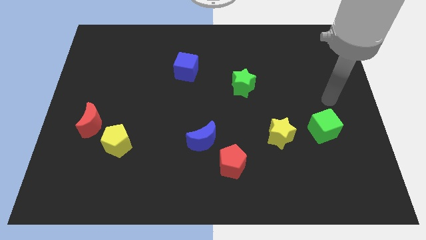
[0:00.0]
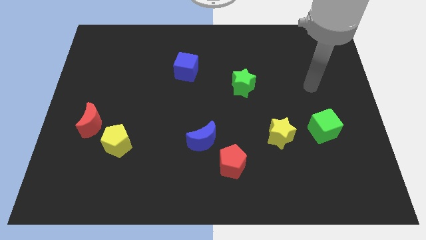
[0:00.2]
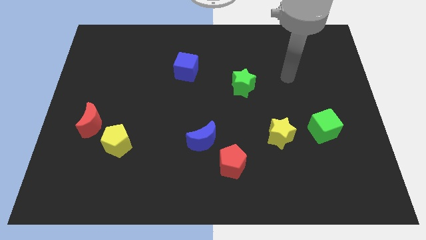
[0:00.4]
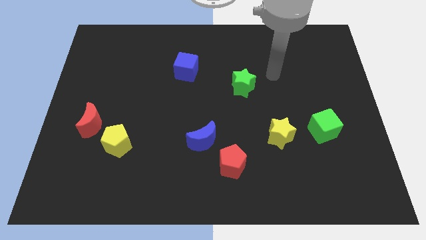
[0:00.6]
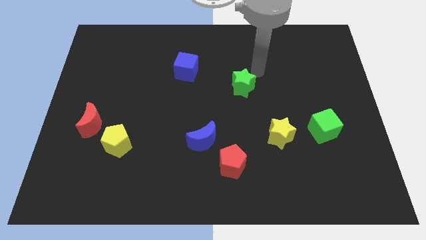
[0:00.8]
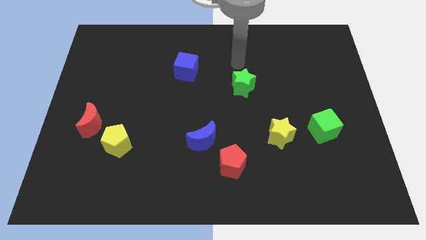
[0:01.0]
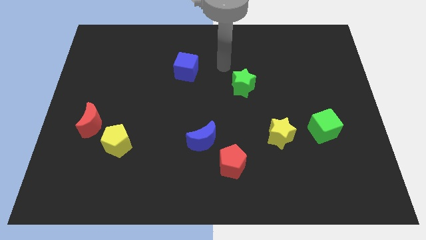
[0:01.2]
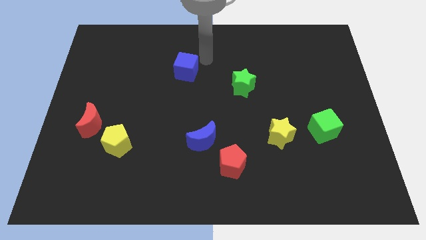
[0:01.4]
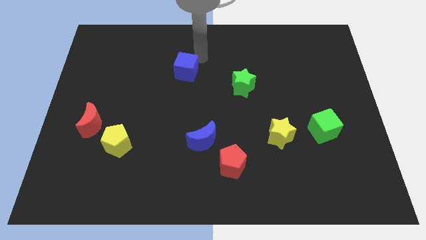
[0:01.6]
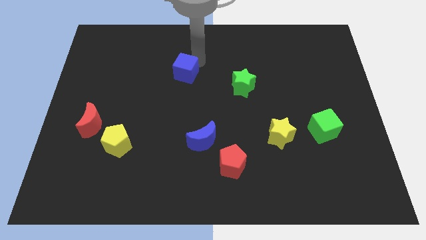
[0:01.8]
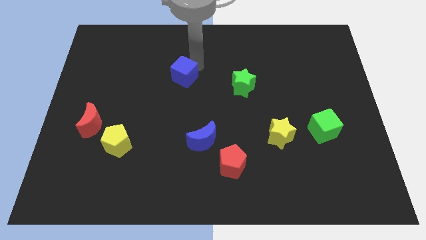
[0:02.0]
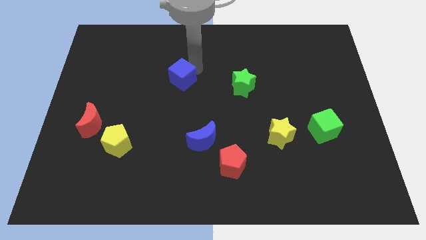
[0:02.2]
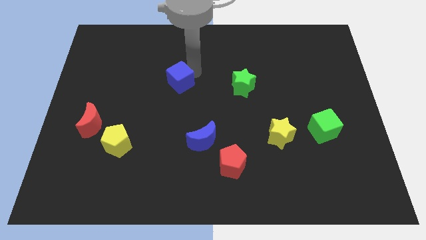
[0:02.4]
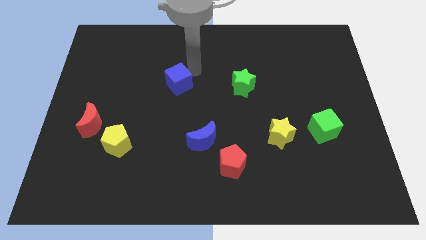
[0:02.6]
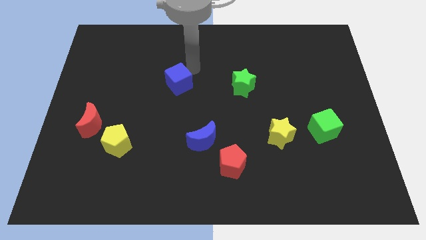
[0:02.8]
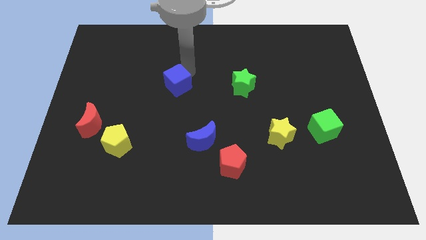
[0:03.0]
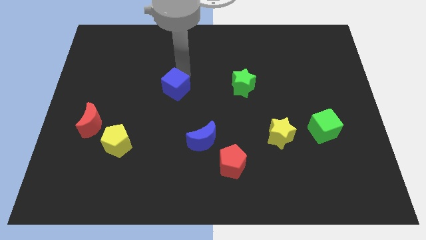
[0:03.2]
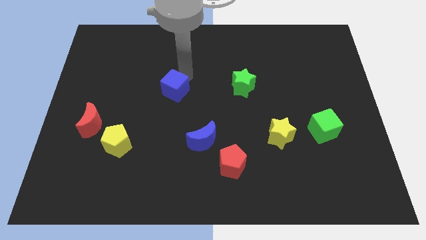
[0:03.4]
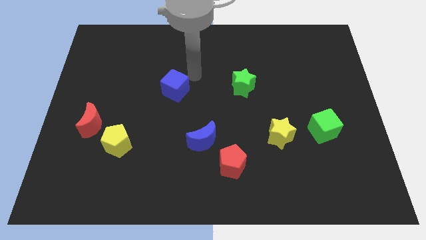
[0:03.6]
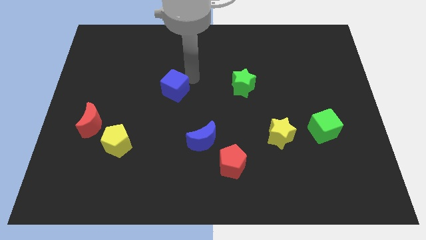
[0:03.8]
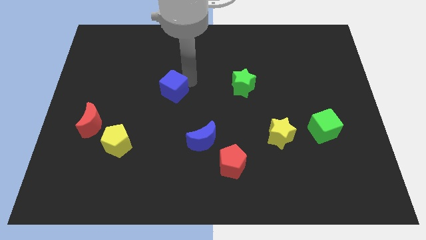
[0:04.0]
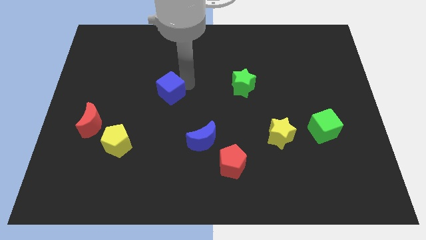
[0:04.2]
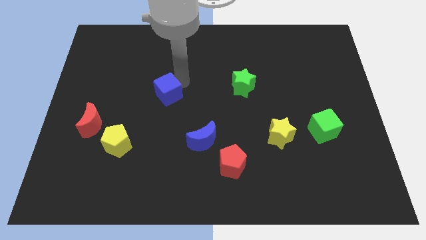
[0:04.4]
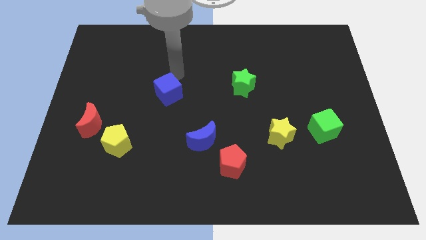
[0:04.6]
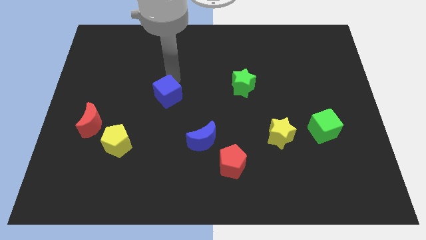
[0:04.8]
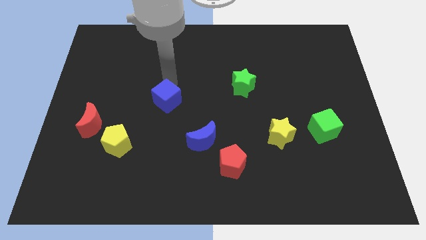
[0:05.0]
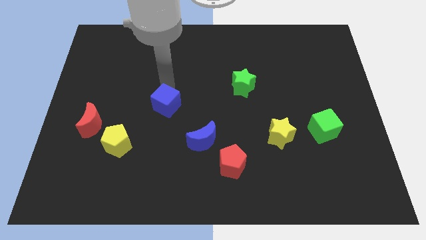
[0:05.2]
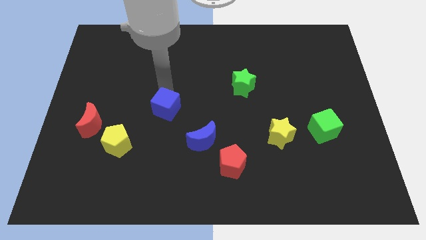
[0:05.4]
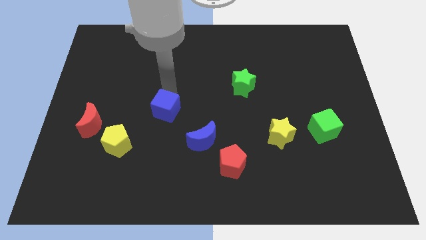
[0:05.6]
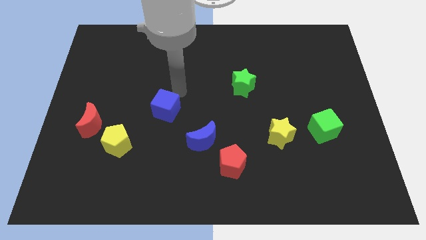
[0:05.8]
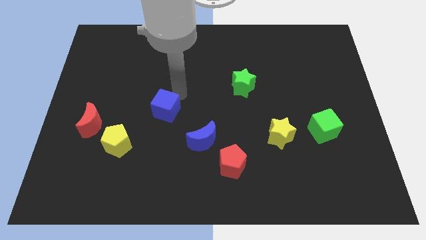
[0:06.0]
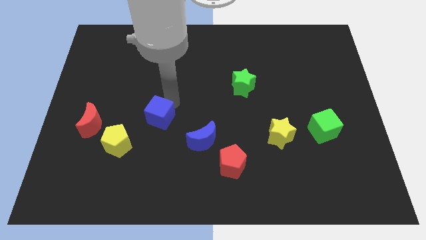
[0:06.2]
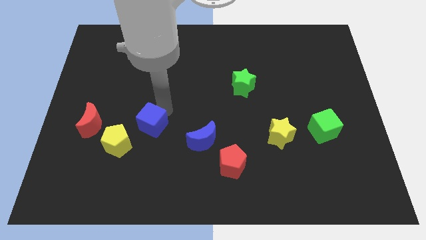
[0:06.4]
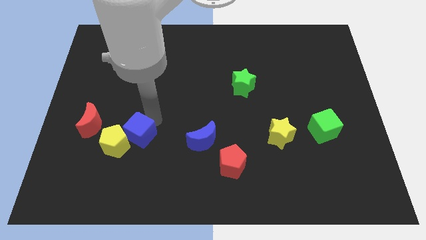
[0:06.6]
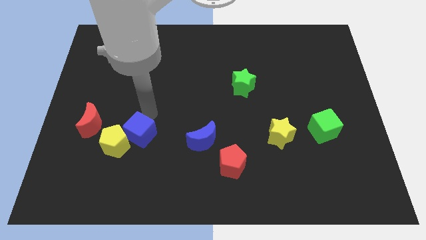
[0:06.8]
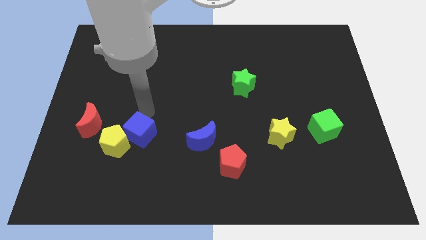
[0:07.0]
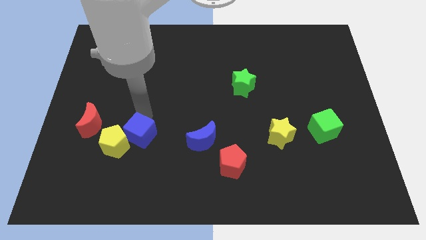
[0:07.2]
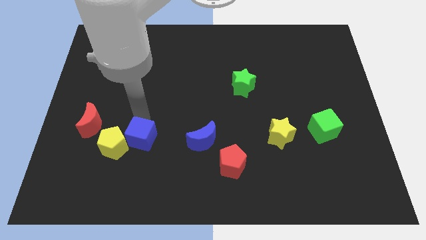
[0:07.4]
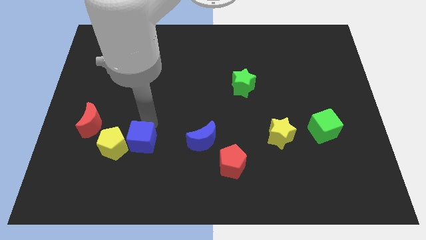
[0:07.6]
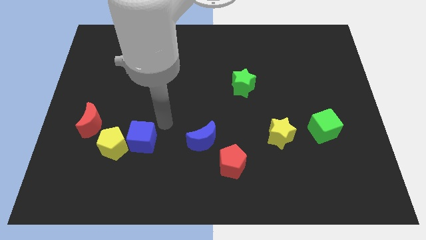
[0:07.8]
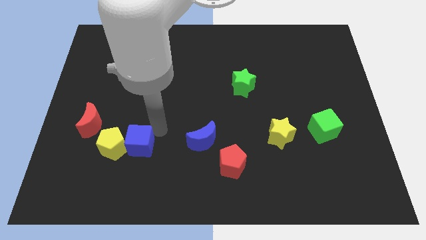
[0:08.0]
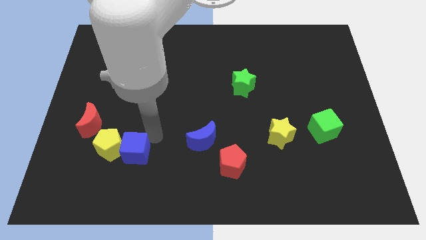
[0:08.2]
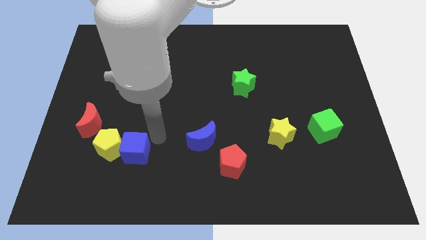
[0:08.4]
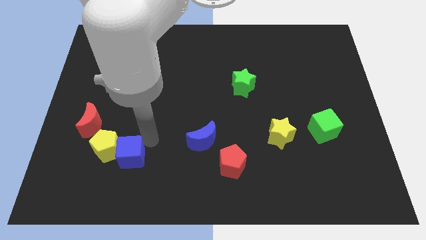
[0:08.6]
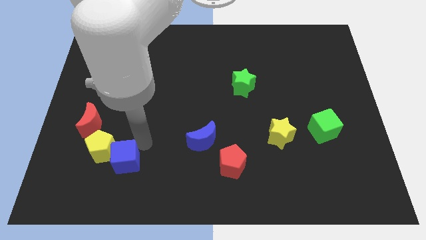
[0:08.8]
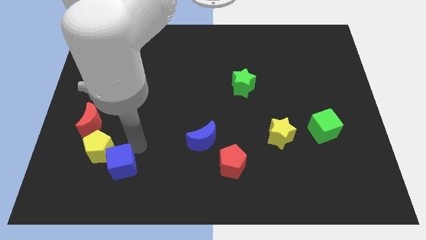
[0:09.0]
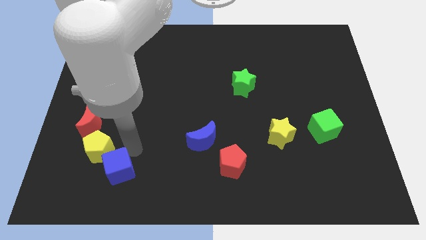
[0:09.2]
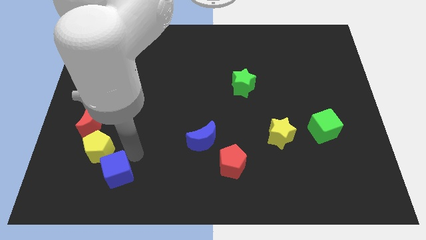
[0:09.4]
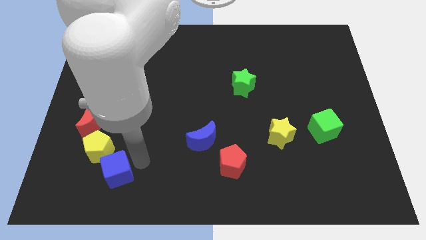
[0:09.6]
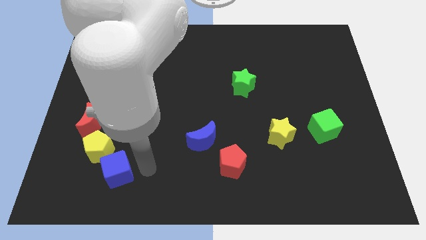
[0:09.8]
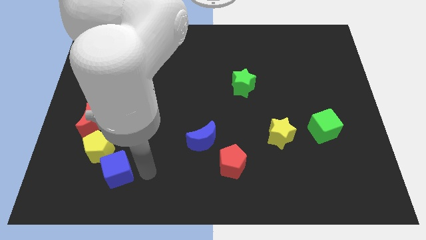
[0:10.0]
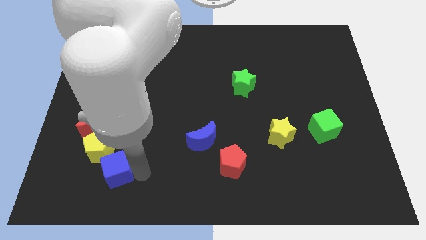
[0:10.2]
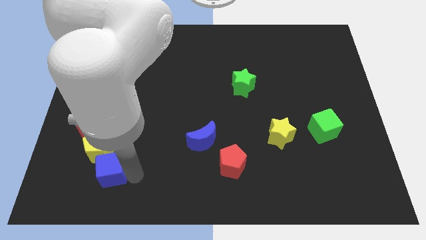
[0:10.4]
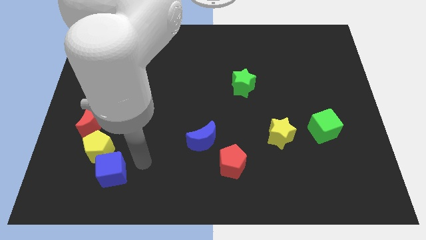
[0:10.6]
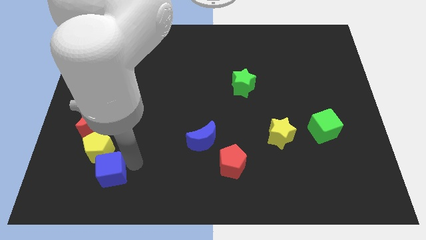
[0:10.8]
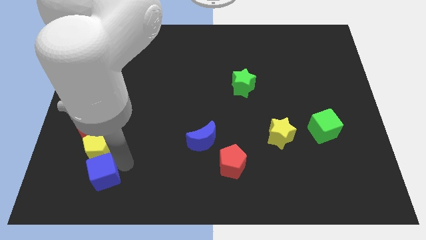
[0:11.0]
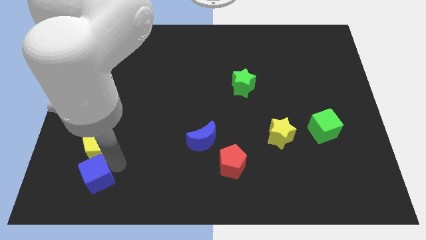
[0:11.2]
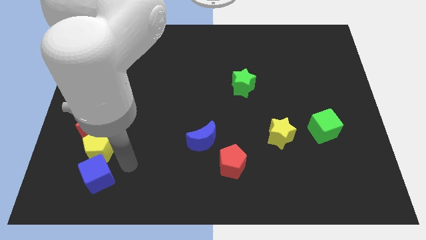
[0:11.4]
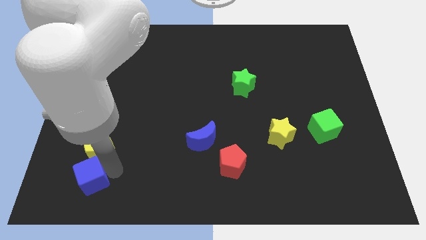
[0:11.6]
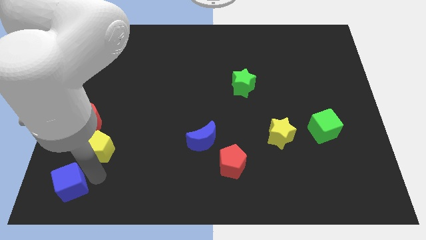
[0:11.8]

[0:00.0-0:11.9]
slide the blue cube to the bottom left of the board
